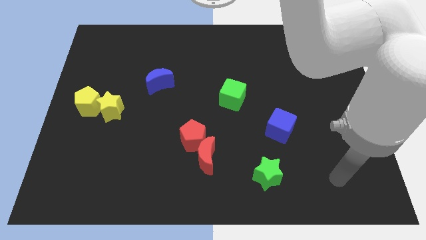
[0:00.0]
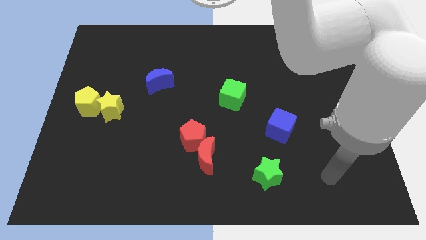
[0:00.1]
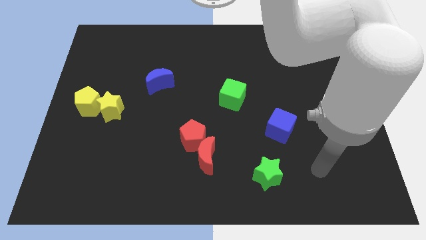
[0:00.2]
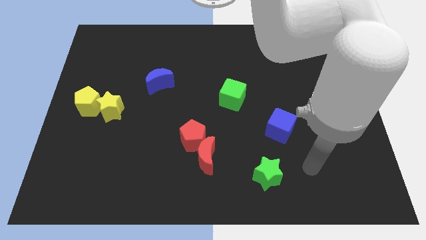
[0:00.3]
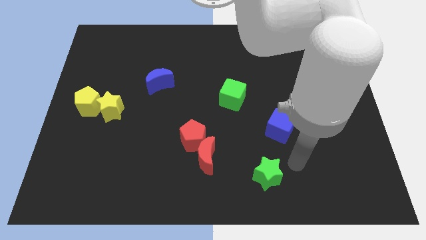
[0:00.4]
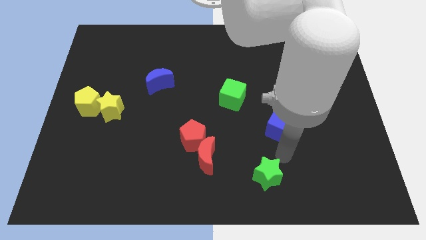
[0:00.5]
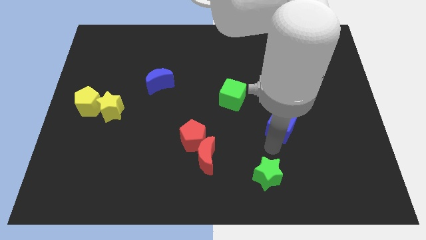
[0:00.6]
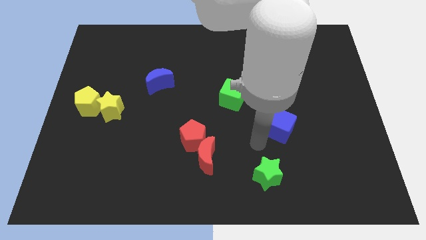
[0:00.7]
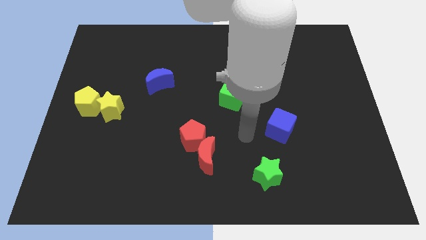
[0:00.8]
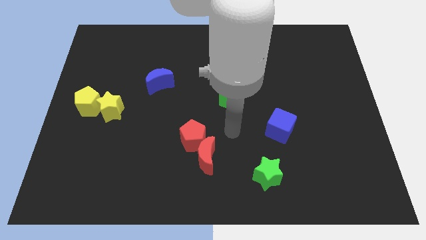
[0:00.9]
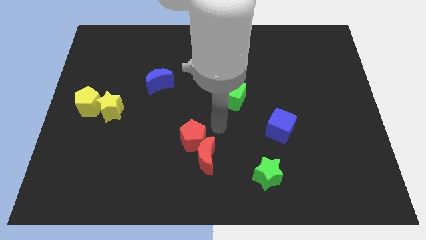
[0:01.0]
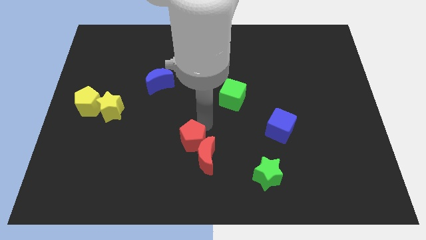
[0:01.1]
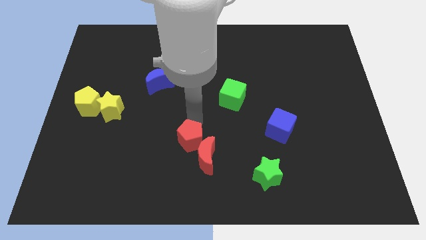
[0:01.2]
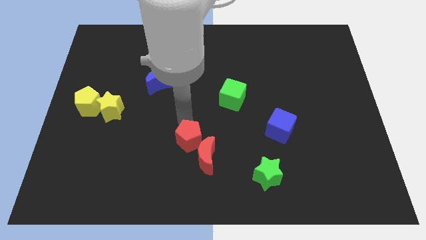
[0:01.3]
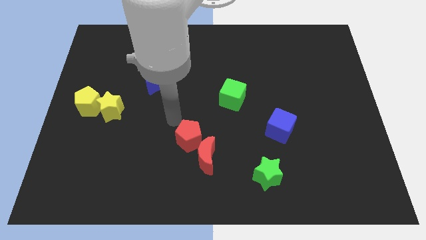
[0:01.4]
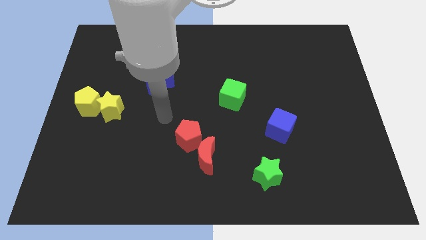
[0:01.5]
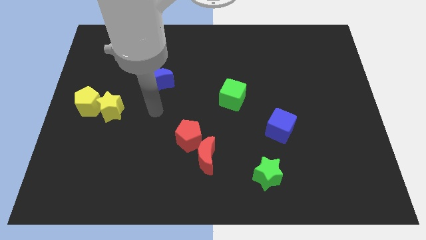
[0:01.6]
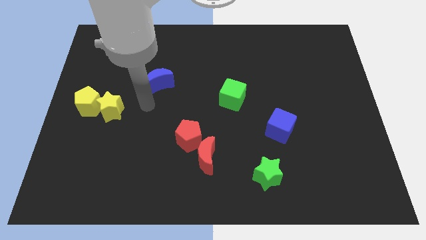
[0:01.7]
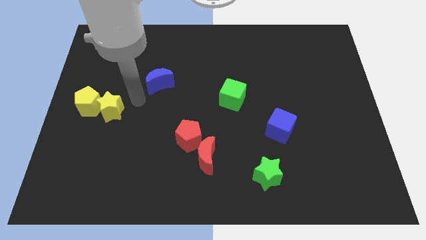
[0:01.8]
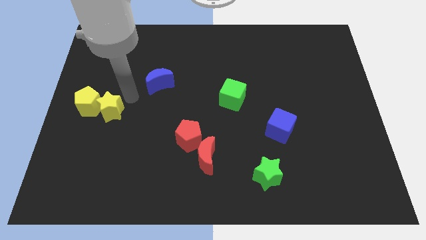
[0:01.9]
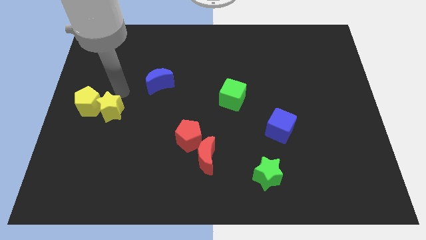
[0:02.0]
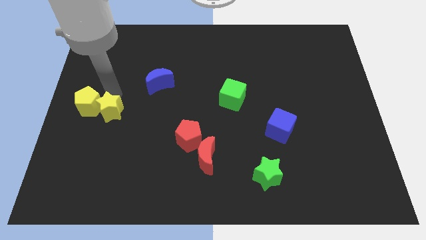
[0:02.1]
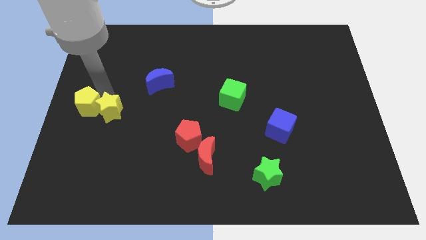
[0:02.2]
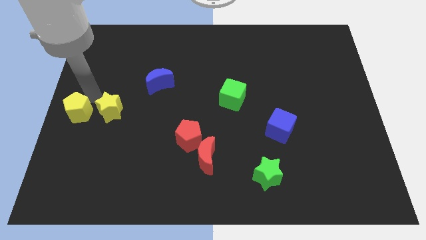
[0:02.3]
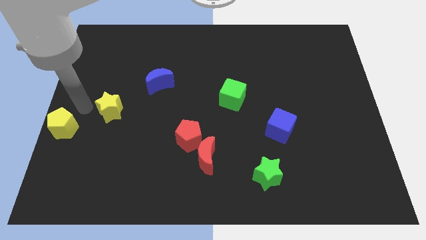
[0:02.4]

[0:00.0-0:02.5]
move the yellow star away from the yellow pentagon

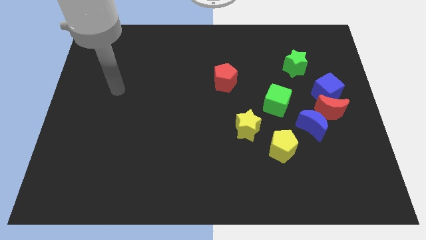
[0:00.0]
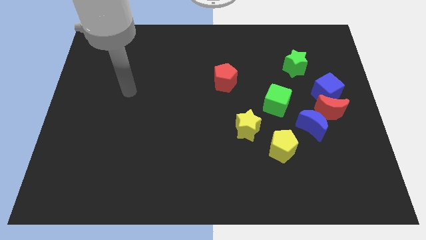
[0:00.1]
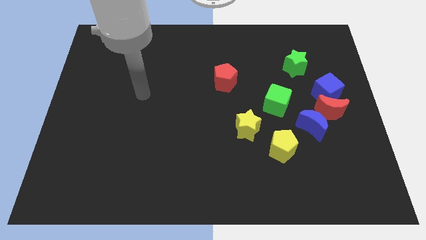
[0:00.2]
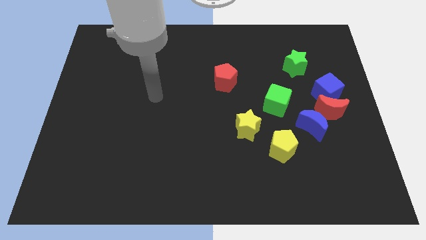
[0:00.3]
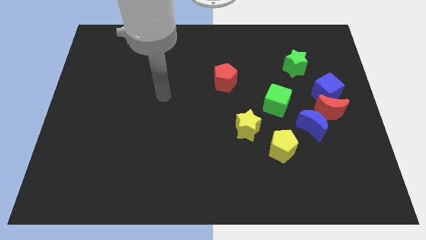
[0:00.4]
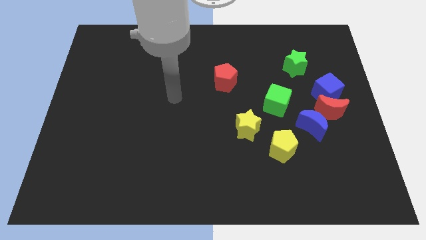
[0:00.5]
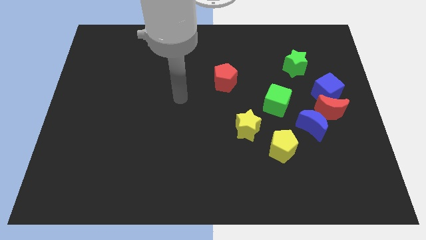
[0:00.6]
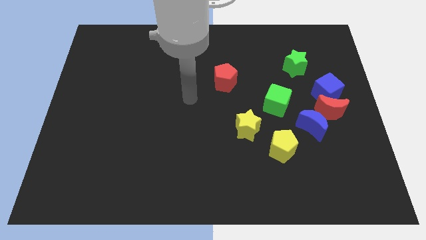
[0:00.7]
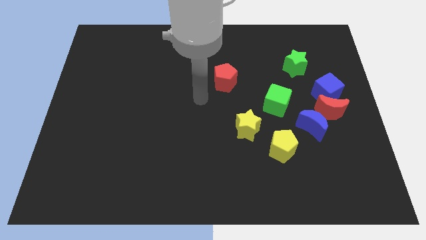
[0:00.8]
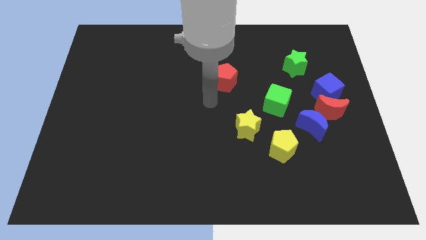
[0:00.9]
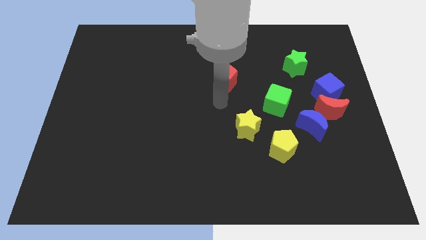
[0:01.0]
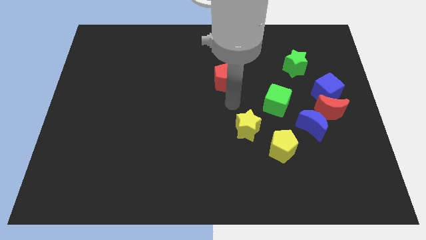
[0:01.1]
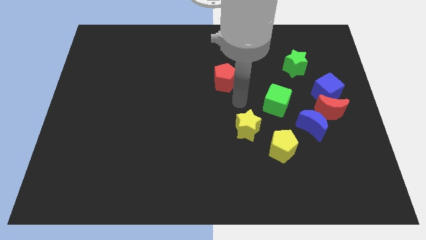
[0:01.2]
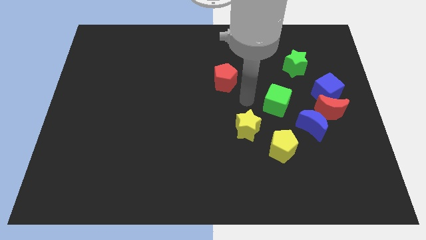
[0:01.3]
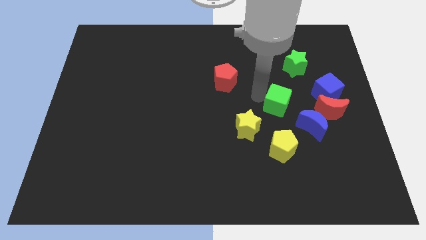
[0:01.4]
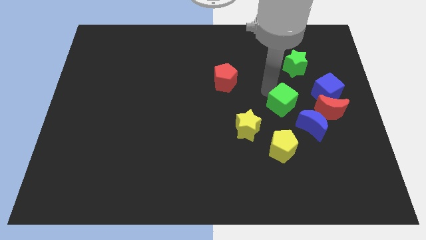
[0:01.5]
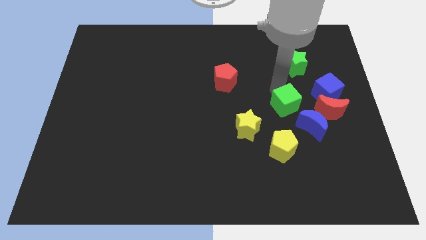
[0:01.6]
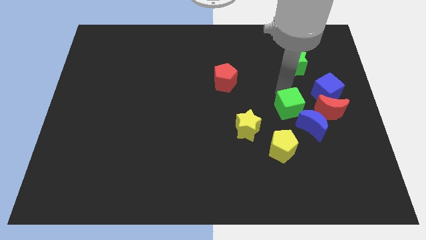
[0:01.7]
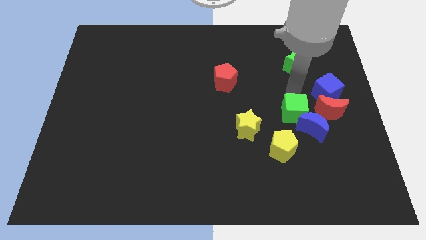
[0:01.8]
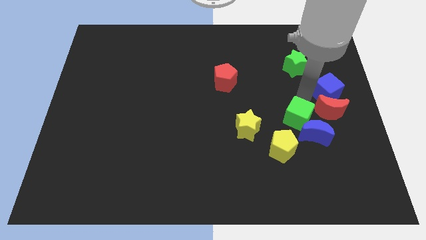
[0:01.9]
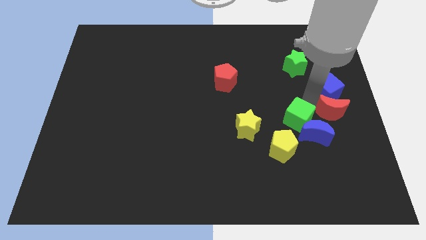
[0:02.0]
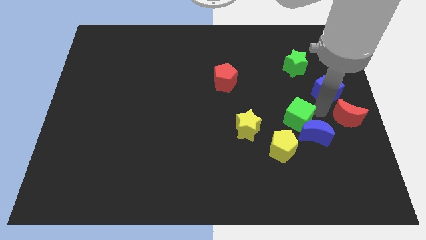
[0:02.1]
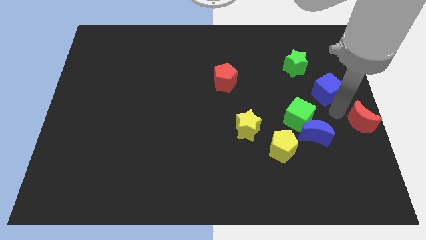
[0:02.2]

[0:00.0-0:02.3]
separate the blue cube from the red moon

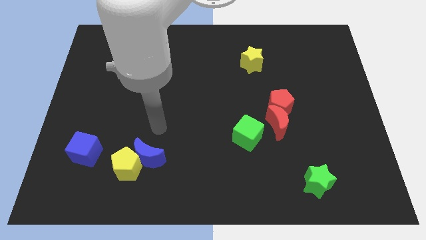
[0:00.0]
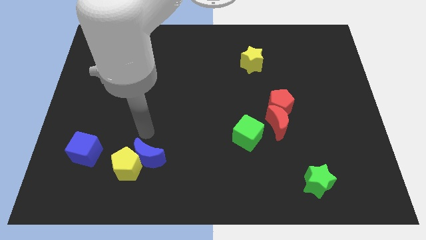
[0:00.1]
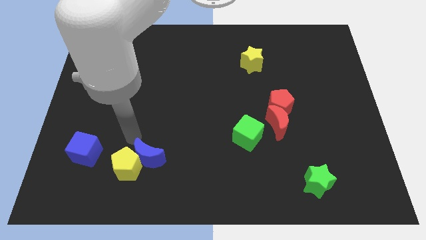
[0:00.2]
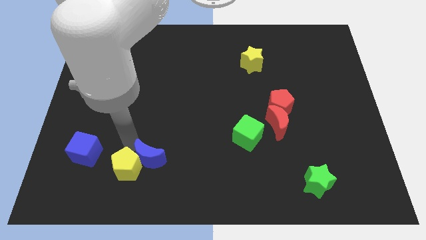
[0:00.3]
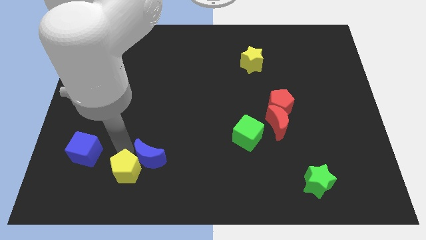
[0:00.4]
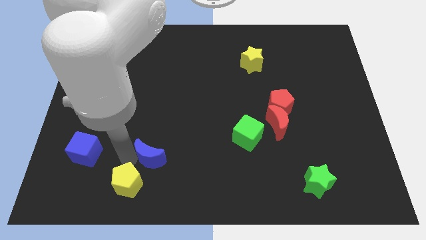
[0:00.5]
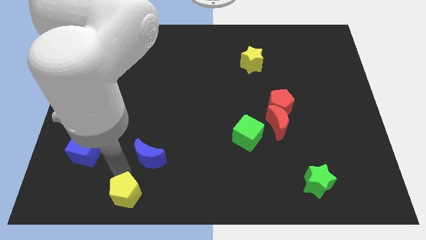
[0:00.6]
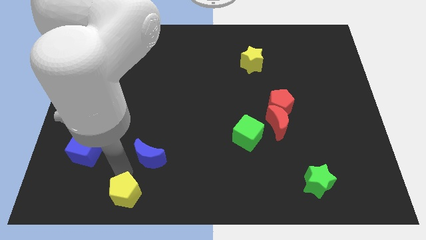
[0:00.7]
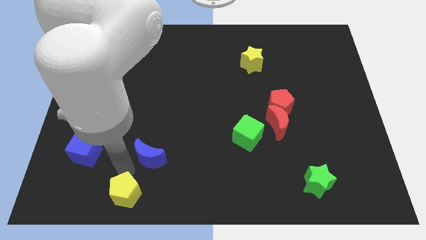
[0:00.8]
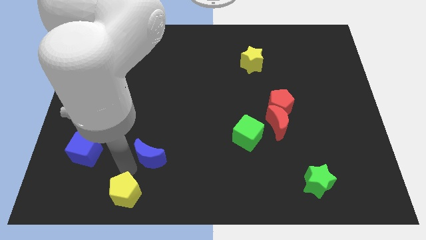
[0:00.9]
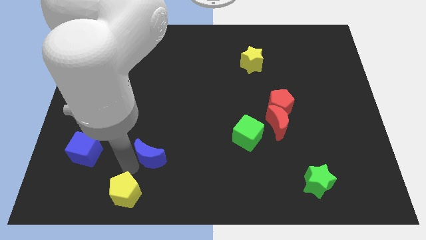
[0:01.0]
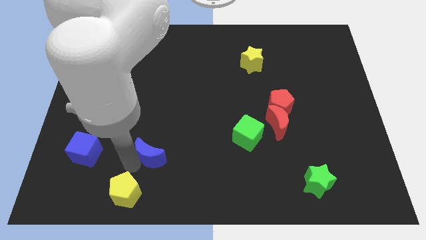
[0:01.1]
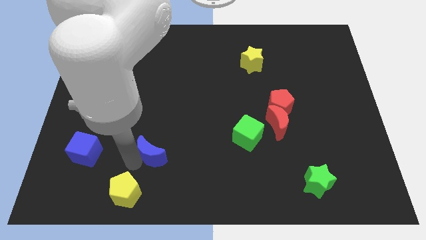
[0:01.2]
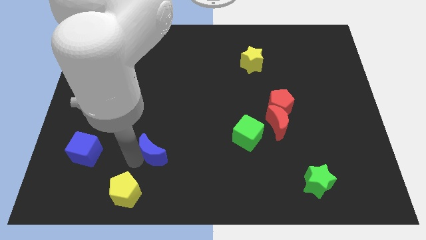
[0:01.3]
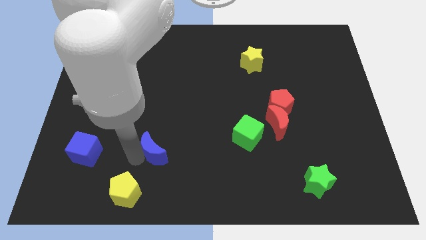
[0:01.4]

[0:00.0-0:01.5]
move the blue moon away from the yellow pentagon

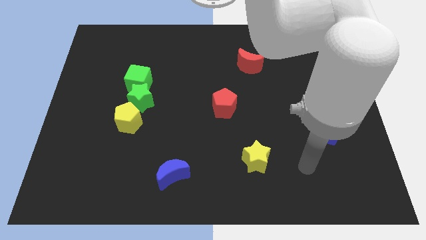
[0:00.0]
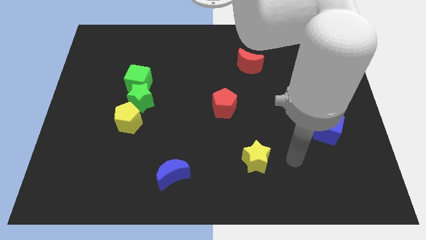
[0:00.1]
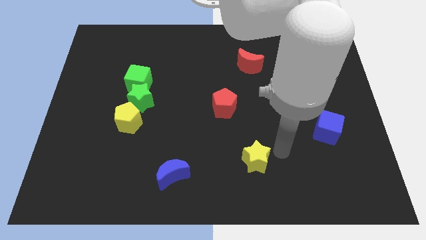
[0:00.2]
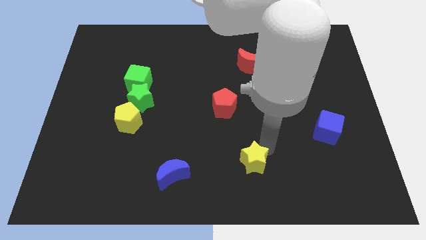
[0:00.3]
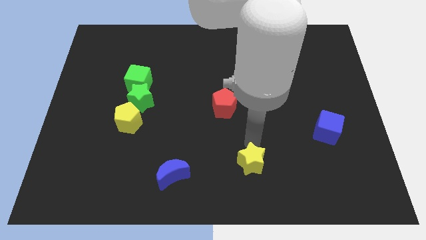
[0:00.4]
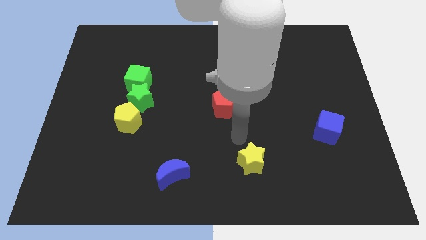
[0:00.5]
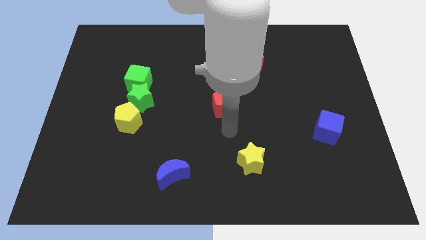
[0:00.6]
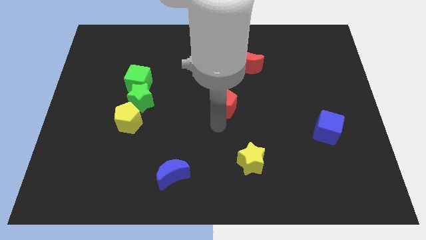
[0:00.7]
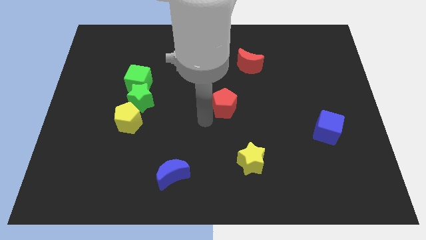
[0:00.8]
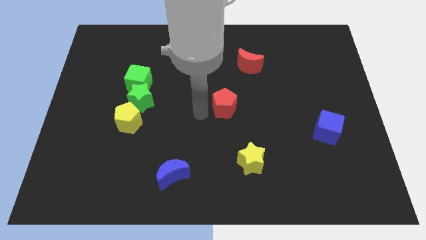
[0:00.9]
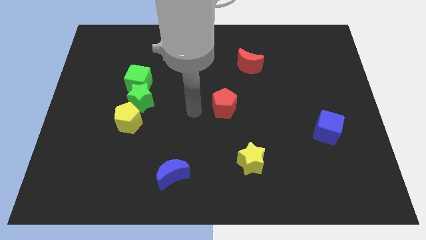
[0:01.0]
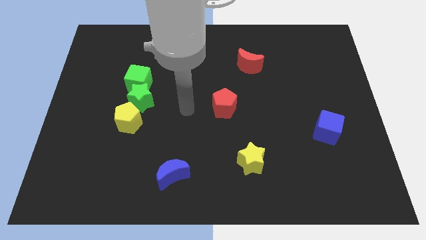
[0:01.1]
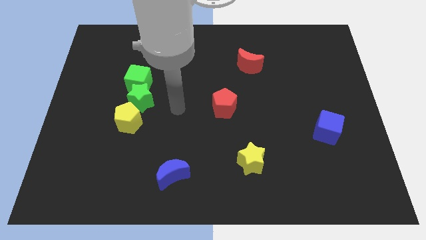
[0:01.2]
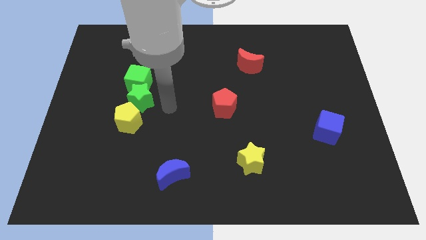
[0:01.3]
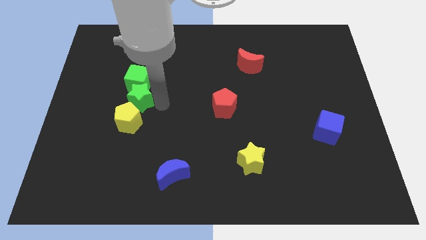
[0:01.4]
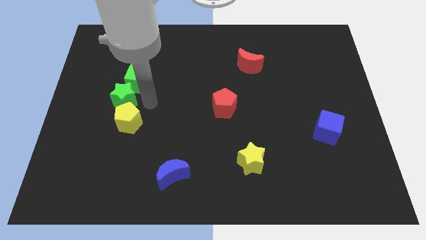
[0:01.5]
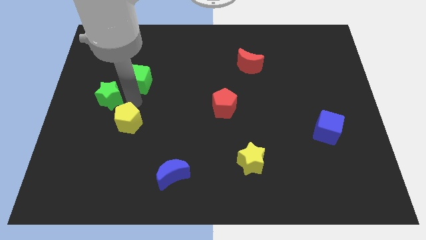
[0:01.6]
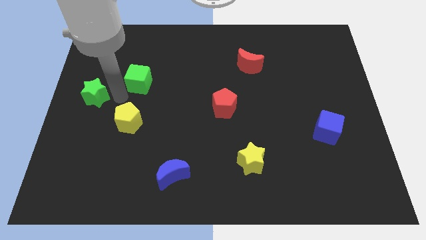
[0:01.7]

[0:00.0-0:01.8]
pull the green cube apart from the green star

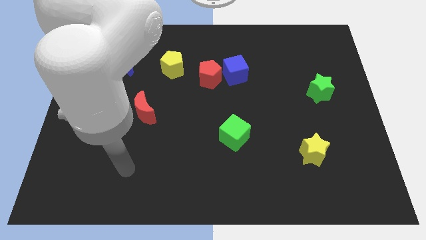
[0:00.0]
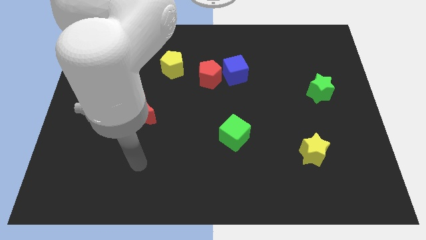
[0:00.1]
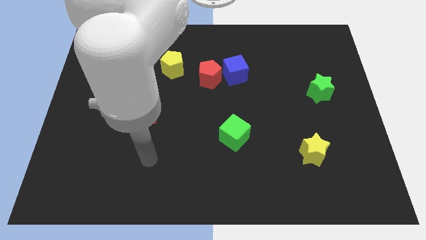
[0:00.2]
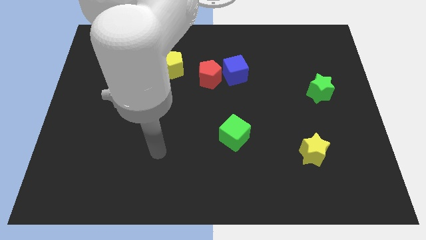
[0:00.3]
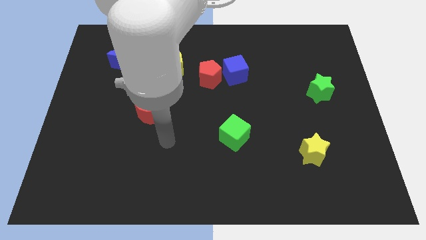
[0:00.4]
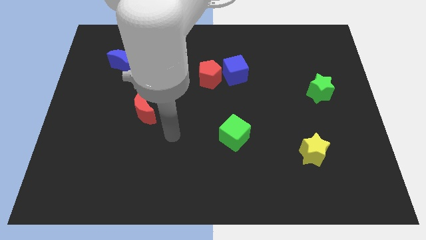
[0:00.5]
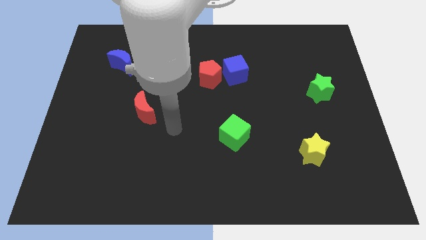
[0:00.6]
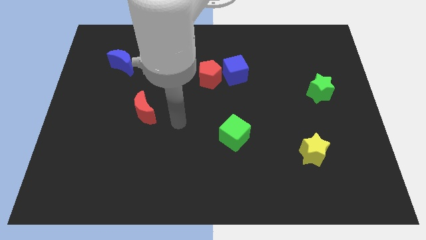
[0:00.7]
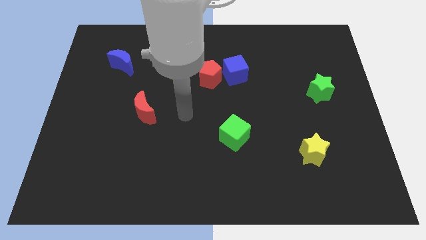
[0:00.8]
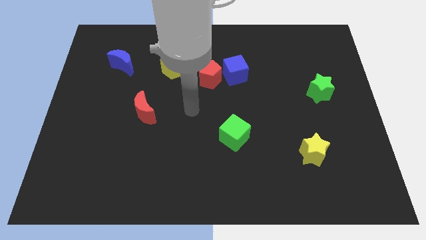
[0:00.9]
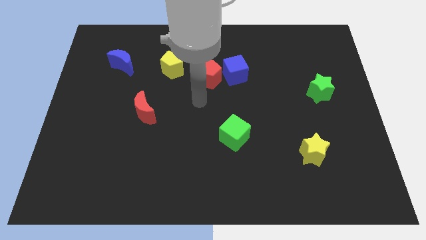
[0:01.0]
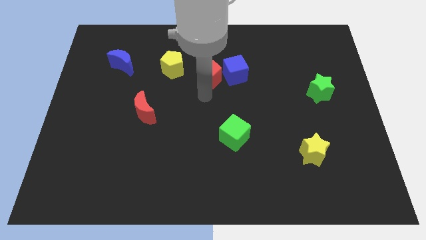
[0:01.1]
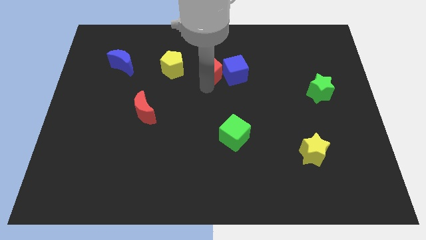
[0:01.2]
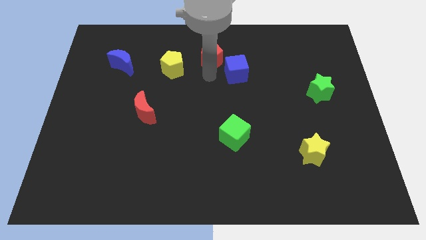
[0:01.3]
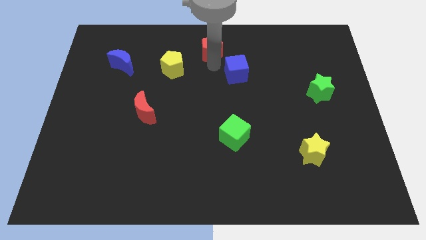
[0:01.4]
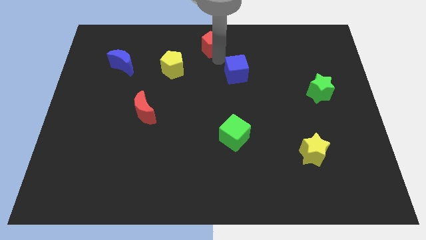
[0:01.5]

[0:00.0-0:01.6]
move the blue cube away from the red pentagon
